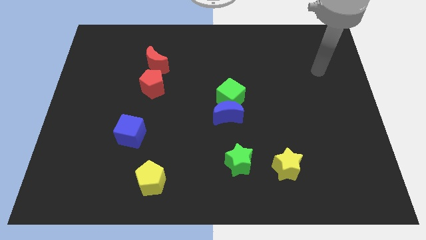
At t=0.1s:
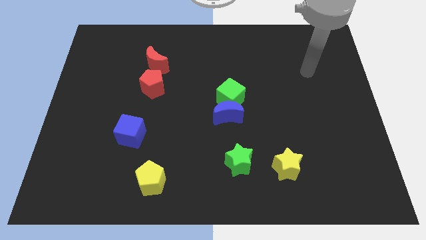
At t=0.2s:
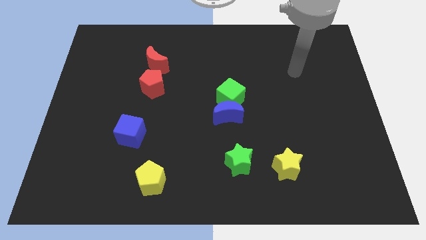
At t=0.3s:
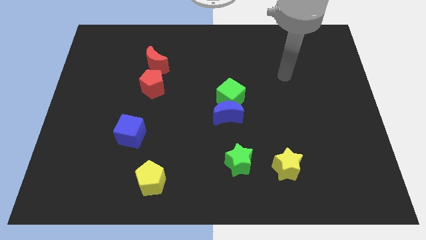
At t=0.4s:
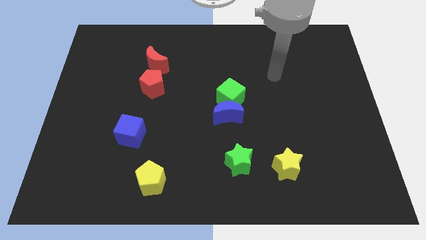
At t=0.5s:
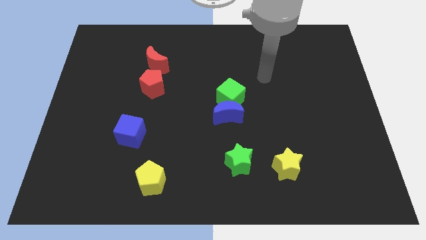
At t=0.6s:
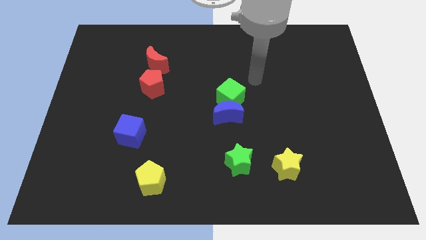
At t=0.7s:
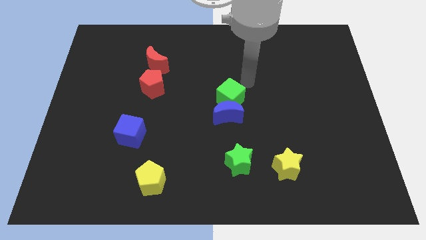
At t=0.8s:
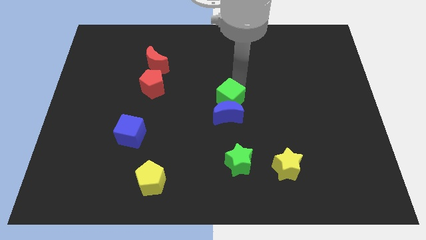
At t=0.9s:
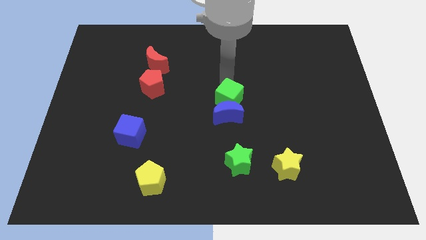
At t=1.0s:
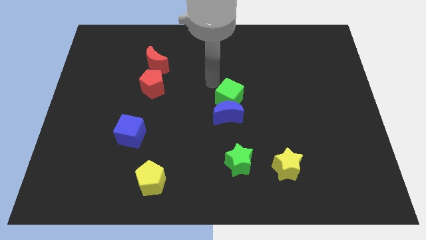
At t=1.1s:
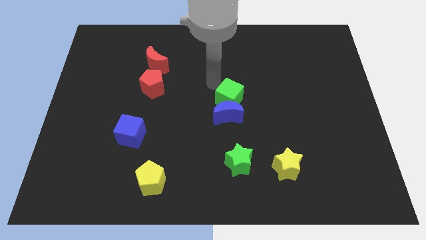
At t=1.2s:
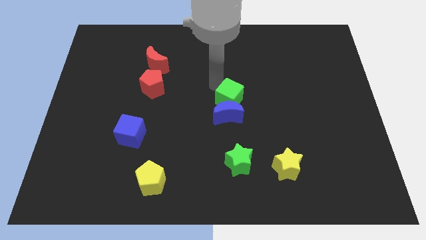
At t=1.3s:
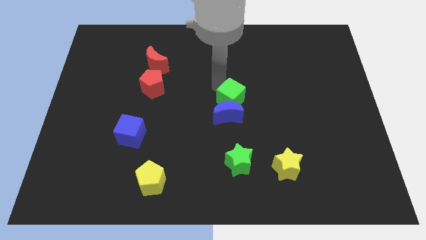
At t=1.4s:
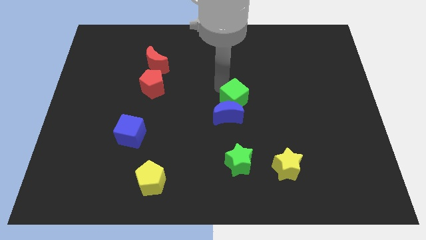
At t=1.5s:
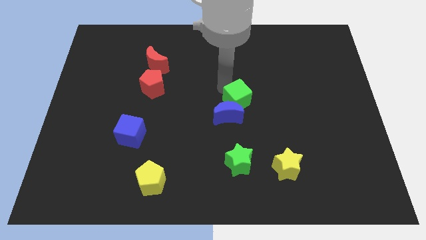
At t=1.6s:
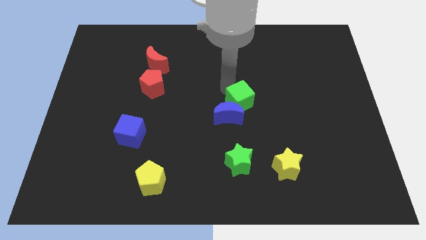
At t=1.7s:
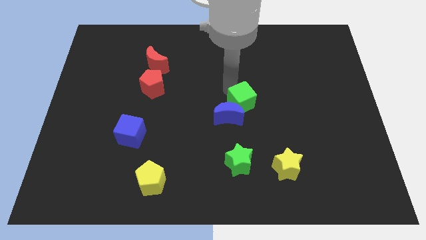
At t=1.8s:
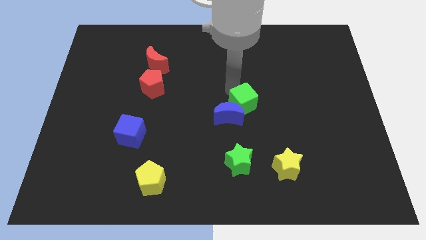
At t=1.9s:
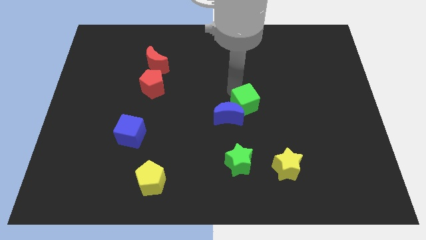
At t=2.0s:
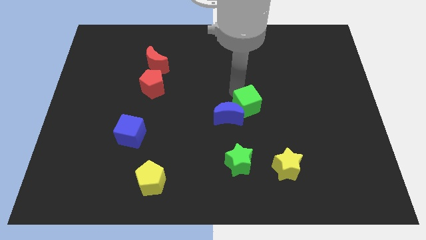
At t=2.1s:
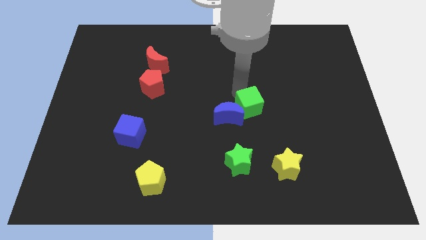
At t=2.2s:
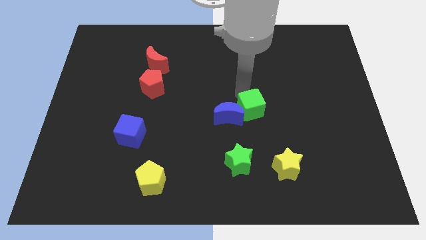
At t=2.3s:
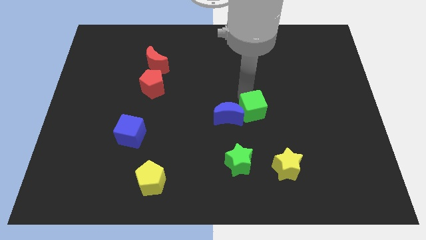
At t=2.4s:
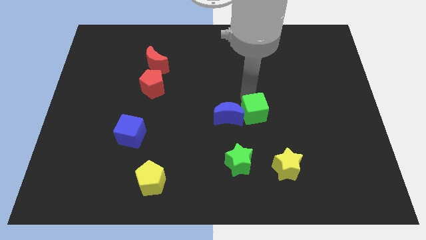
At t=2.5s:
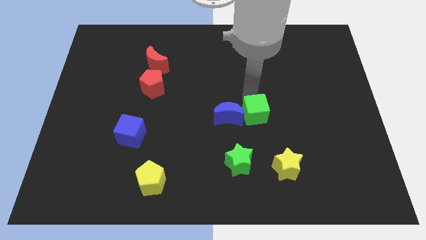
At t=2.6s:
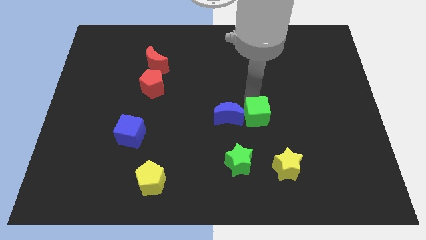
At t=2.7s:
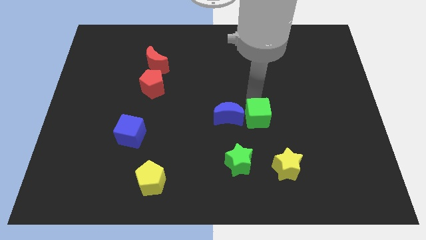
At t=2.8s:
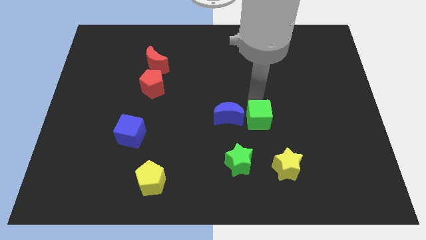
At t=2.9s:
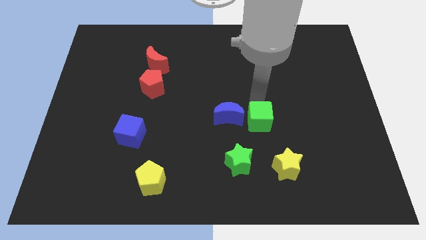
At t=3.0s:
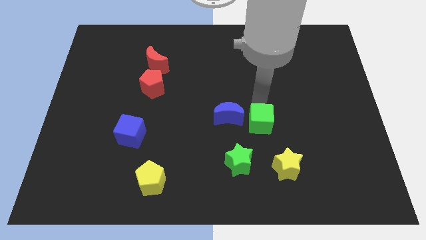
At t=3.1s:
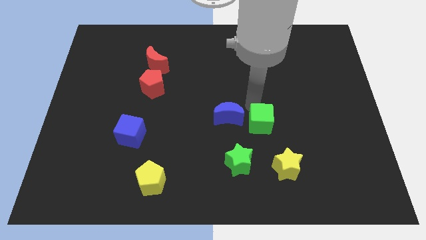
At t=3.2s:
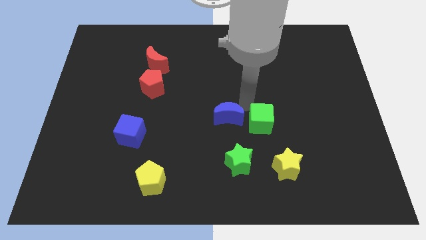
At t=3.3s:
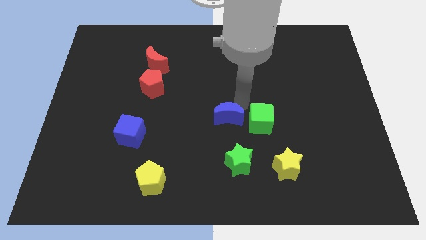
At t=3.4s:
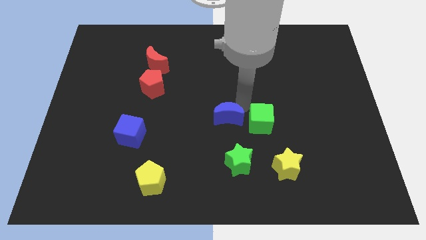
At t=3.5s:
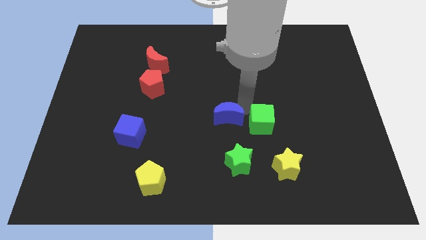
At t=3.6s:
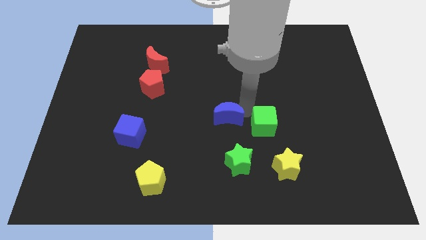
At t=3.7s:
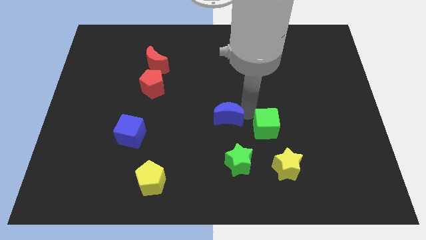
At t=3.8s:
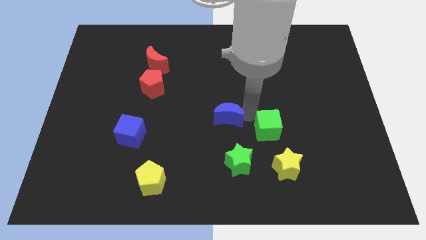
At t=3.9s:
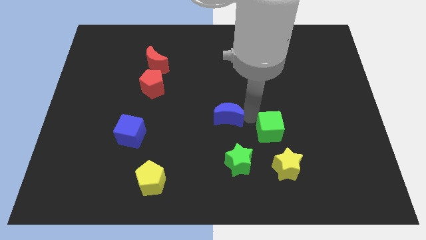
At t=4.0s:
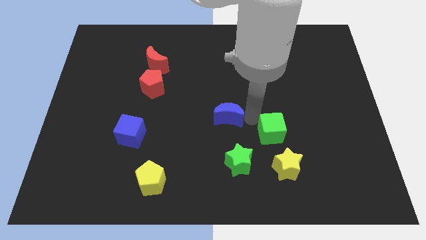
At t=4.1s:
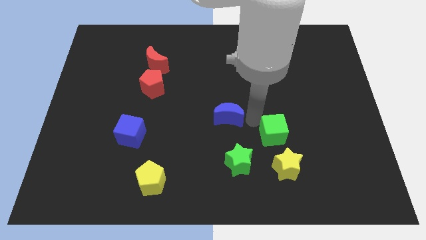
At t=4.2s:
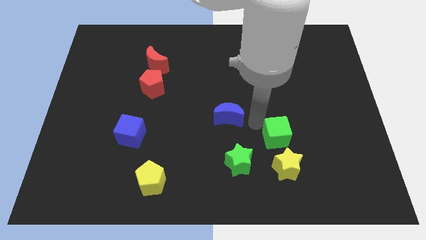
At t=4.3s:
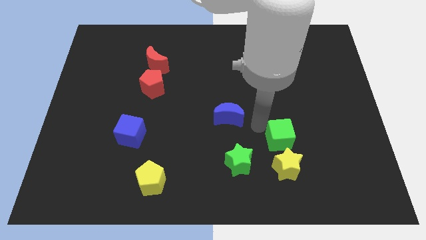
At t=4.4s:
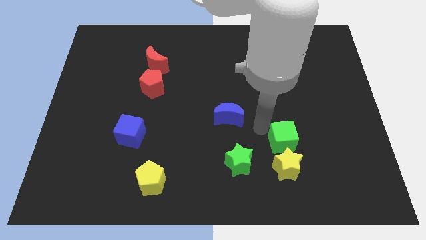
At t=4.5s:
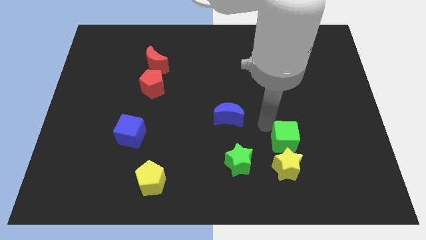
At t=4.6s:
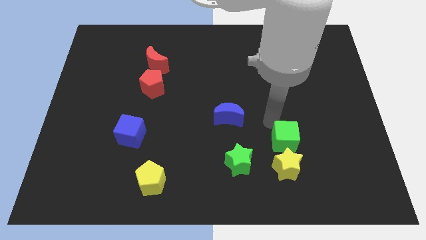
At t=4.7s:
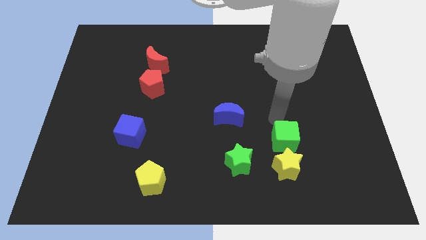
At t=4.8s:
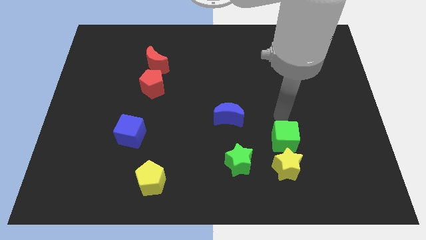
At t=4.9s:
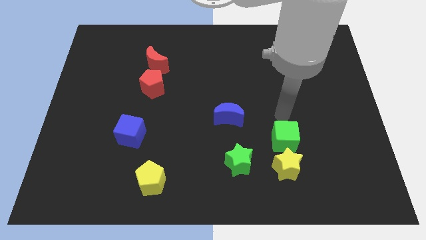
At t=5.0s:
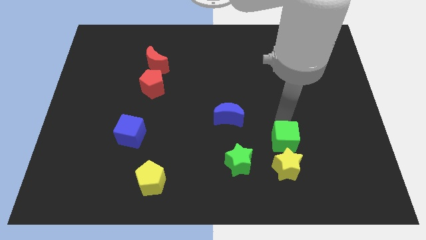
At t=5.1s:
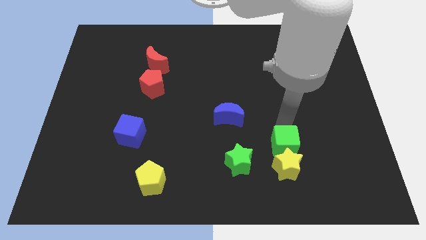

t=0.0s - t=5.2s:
put the green cube towards the yellow star
